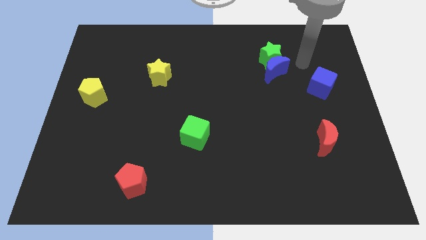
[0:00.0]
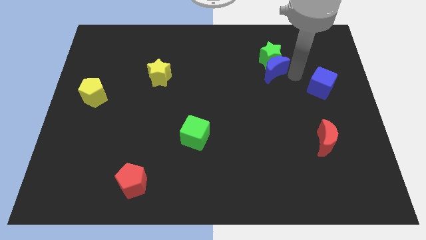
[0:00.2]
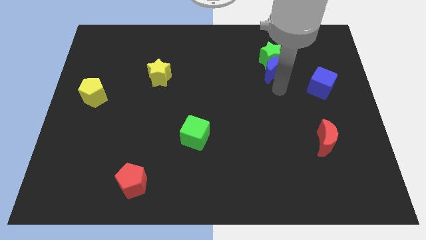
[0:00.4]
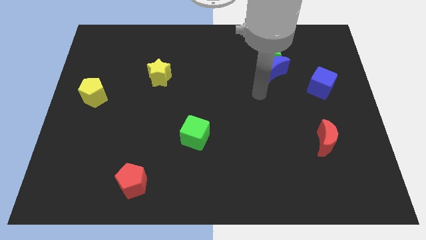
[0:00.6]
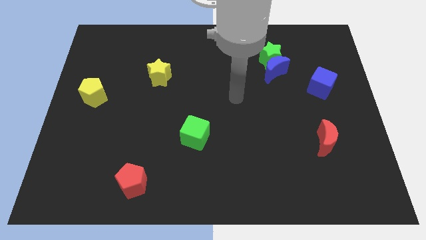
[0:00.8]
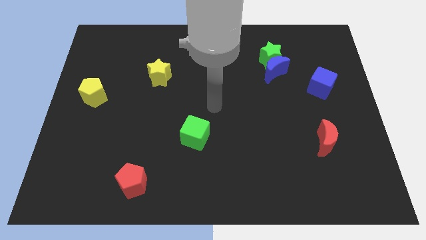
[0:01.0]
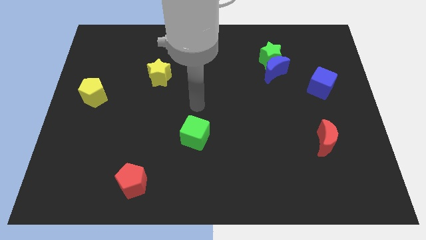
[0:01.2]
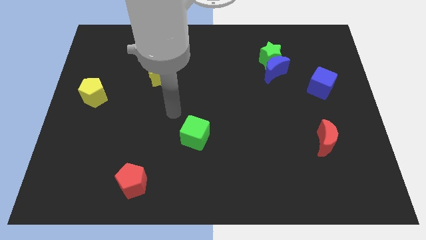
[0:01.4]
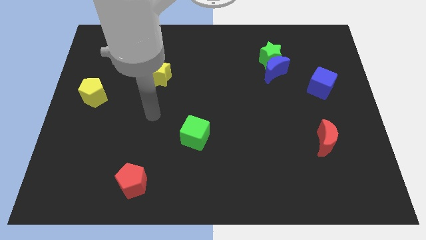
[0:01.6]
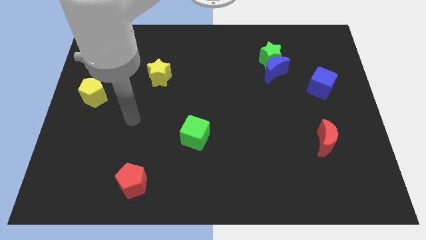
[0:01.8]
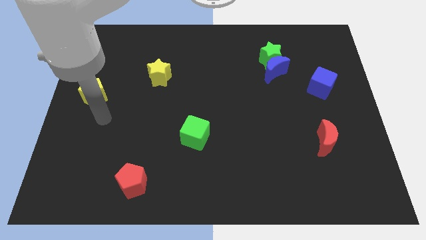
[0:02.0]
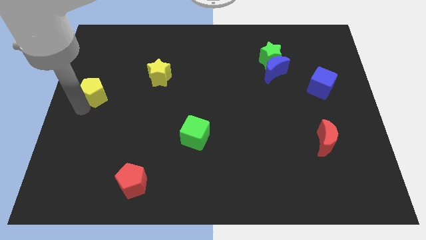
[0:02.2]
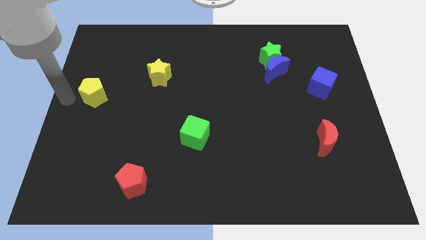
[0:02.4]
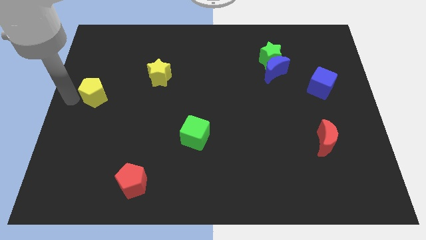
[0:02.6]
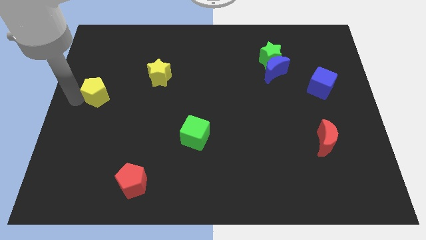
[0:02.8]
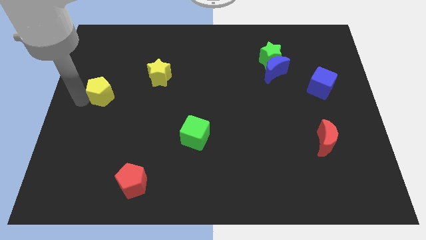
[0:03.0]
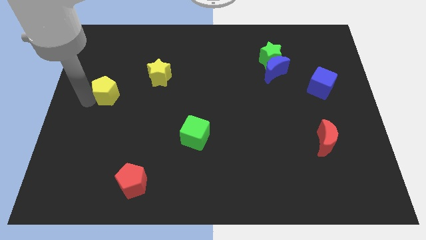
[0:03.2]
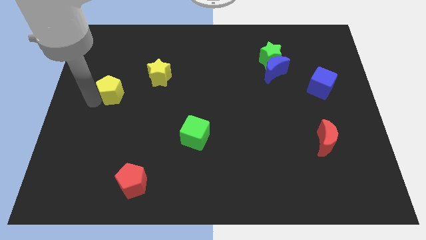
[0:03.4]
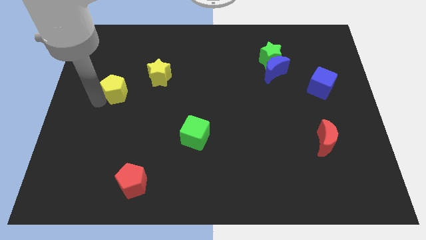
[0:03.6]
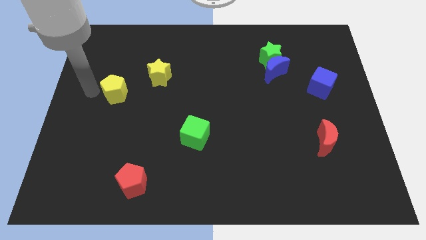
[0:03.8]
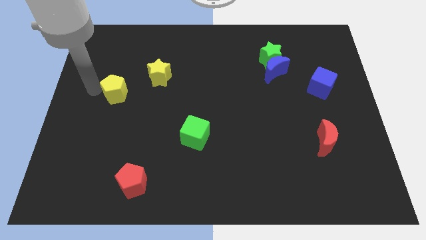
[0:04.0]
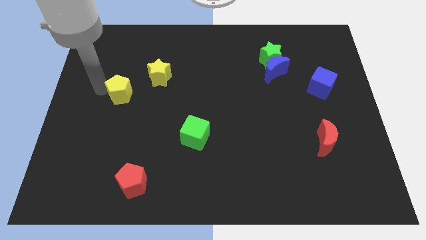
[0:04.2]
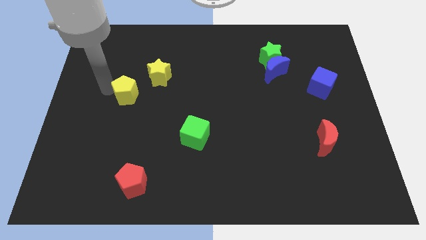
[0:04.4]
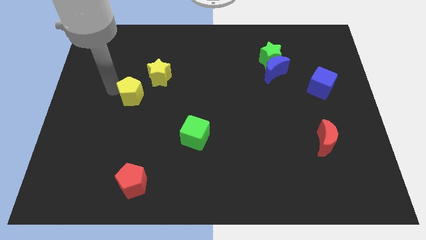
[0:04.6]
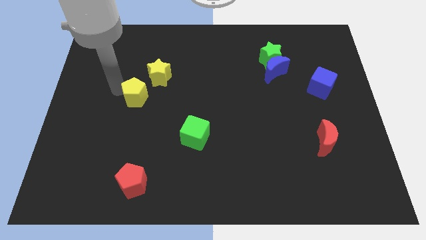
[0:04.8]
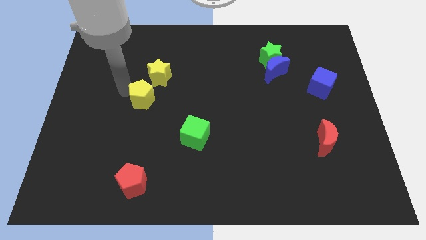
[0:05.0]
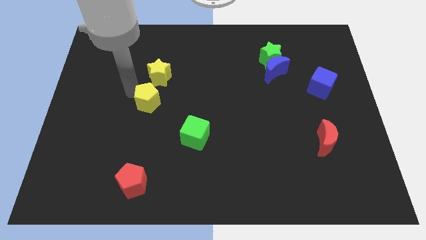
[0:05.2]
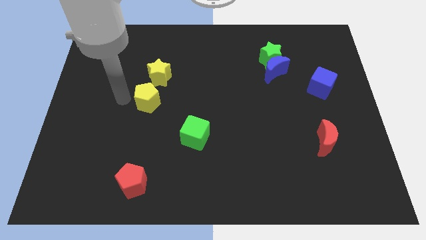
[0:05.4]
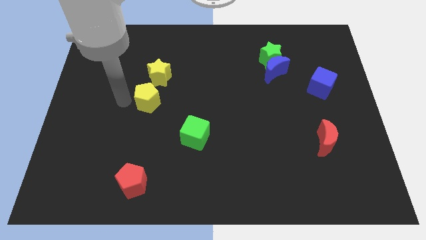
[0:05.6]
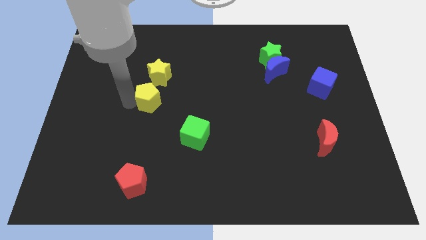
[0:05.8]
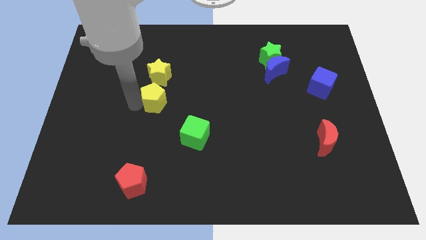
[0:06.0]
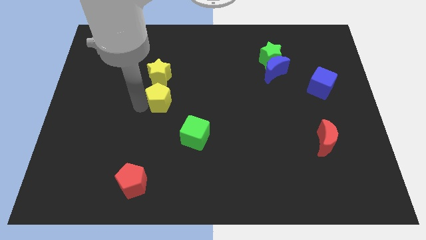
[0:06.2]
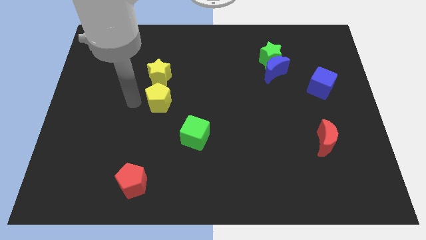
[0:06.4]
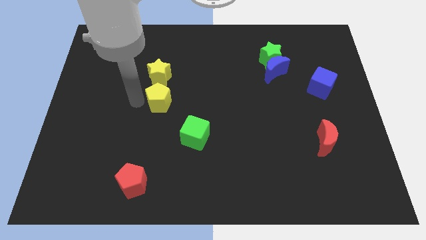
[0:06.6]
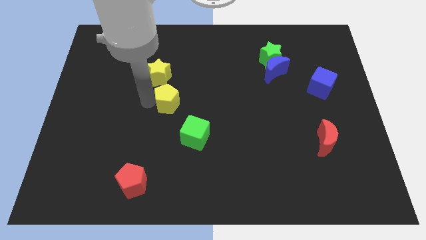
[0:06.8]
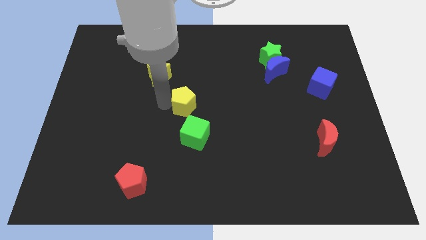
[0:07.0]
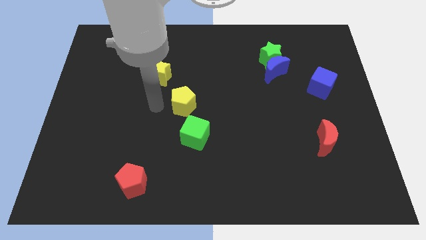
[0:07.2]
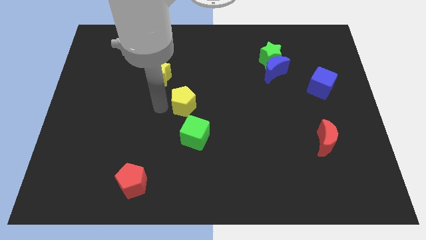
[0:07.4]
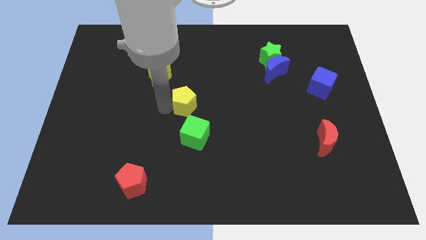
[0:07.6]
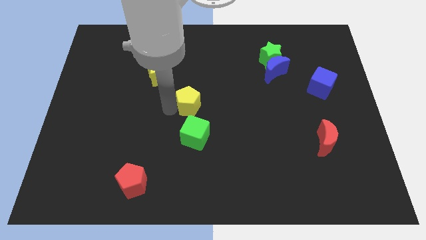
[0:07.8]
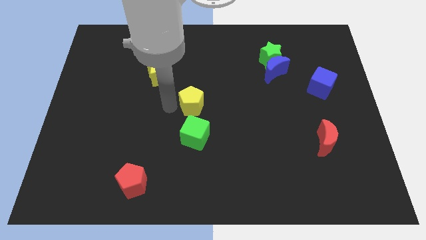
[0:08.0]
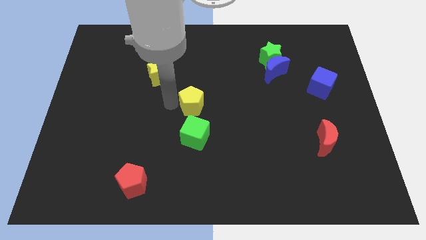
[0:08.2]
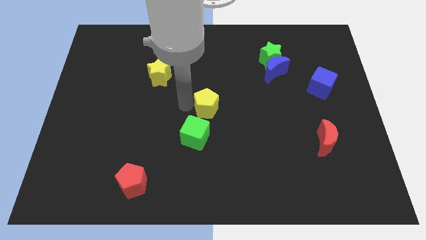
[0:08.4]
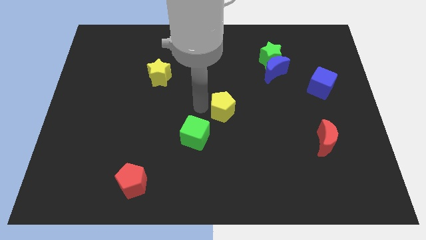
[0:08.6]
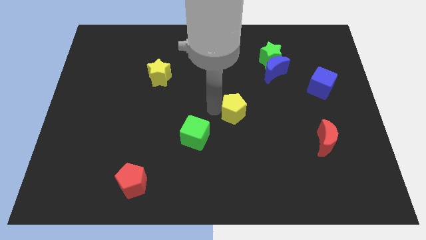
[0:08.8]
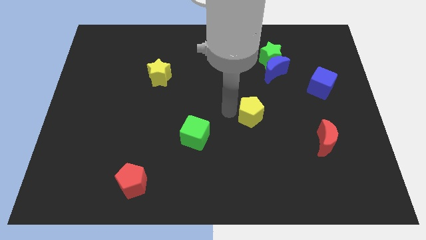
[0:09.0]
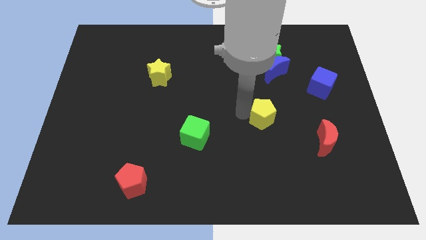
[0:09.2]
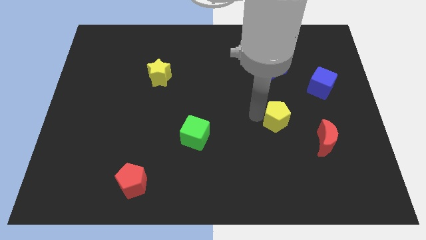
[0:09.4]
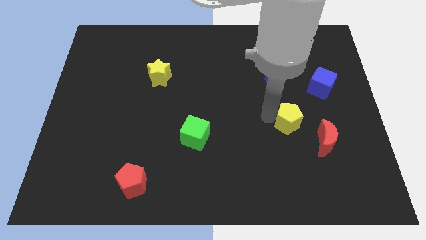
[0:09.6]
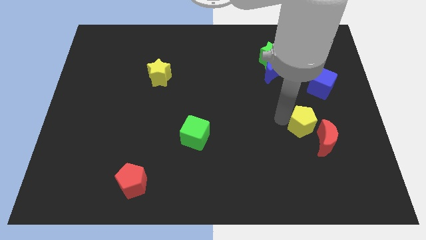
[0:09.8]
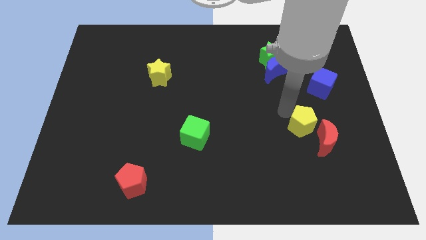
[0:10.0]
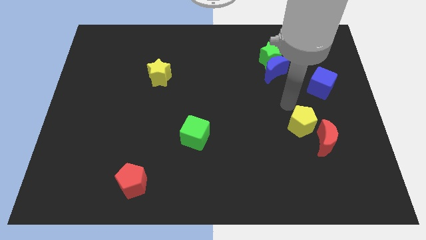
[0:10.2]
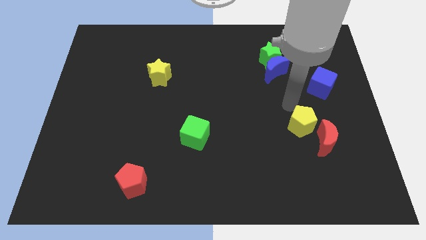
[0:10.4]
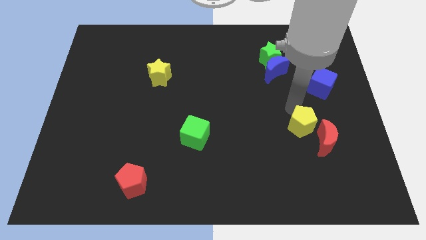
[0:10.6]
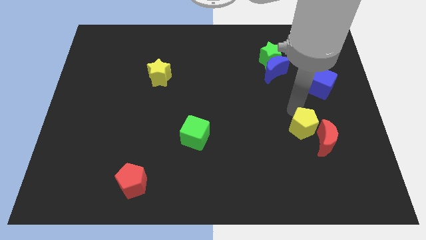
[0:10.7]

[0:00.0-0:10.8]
move the yellow pentagon next to the red moon

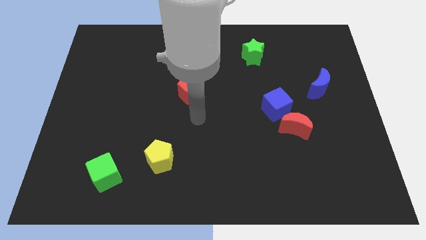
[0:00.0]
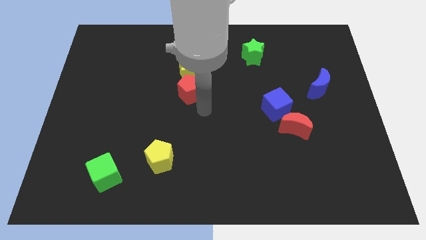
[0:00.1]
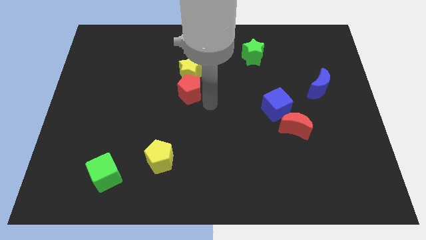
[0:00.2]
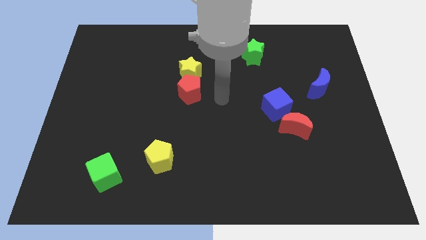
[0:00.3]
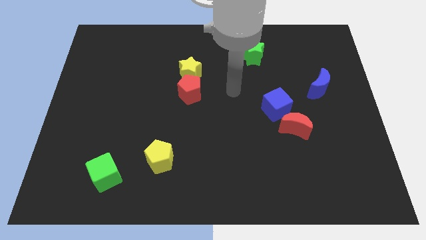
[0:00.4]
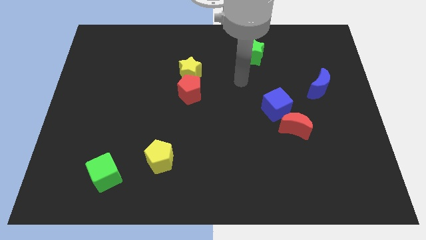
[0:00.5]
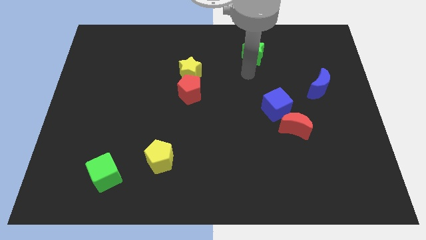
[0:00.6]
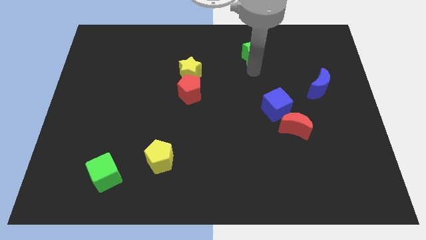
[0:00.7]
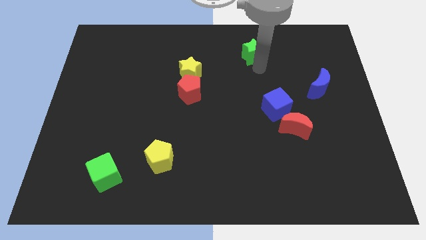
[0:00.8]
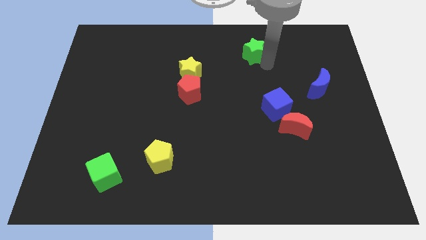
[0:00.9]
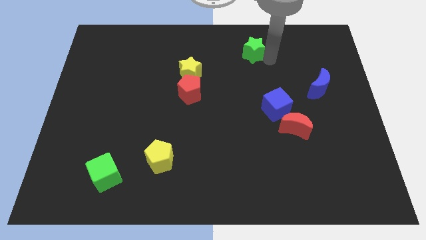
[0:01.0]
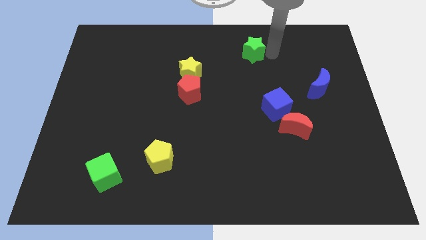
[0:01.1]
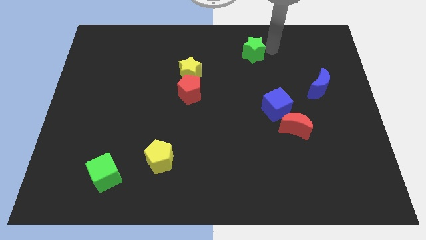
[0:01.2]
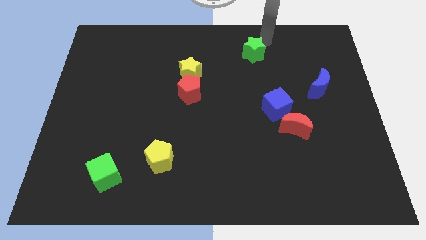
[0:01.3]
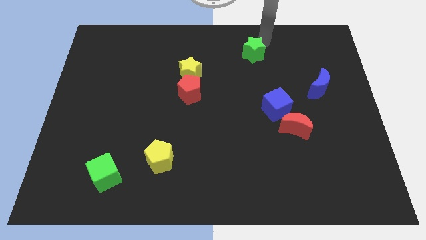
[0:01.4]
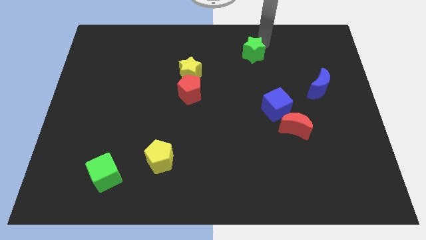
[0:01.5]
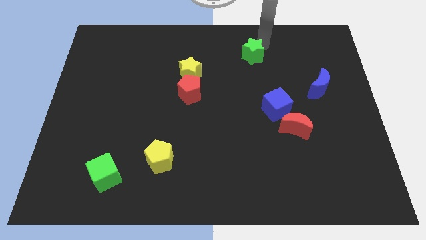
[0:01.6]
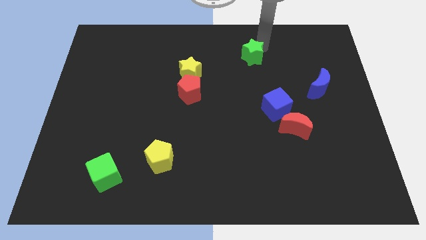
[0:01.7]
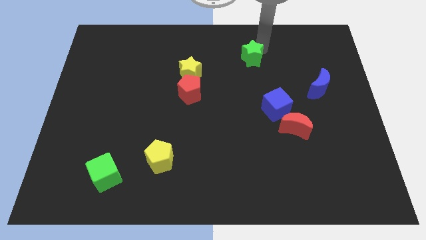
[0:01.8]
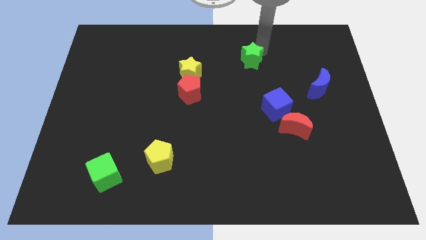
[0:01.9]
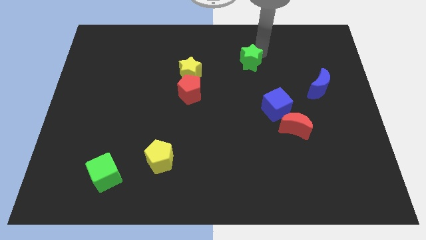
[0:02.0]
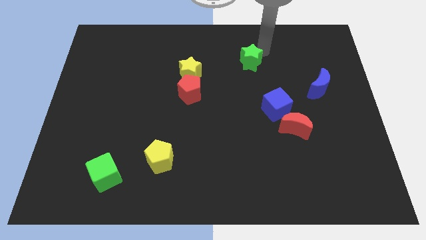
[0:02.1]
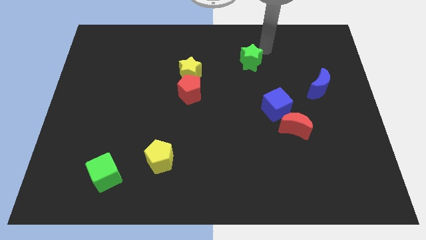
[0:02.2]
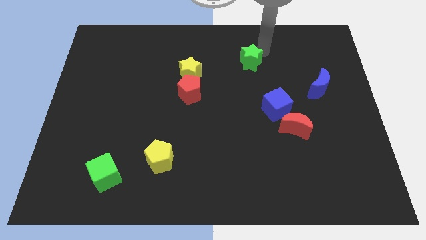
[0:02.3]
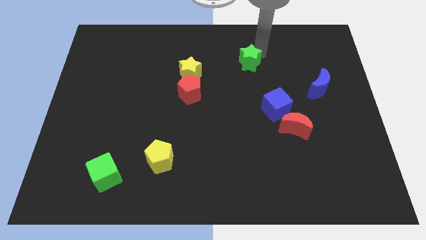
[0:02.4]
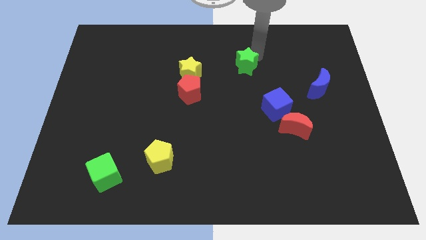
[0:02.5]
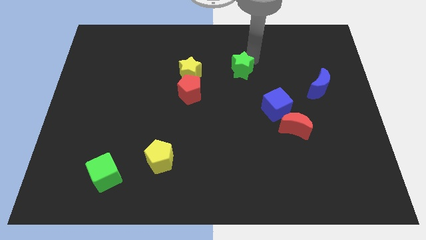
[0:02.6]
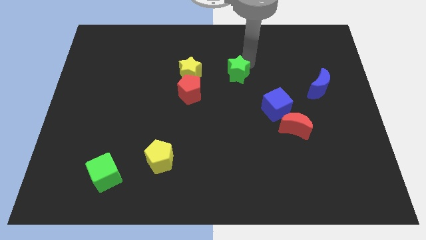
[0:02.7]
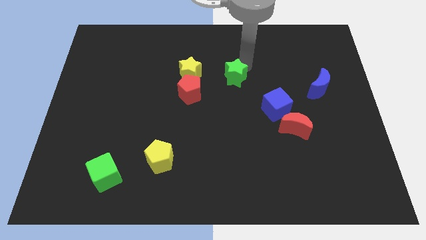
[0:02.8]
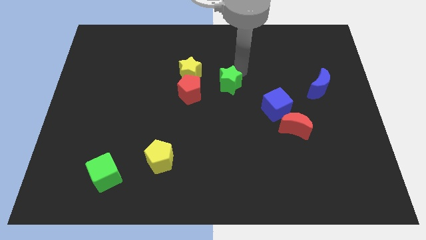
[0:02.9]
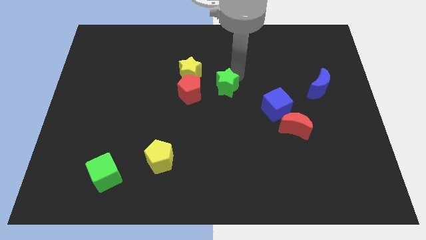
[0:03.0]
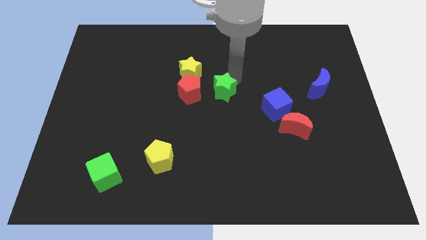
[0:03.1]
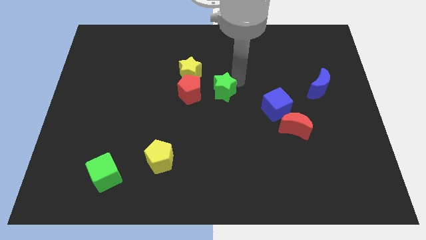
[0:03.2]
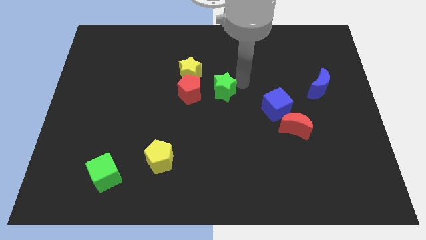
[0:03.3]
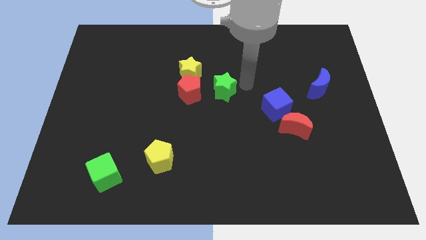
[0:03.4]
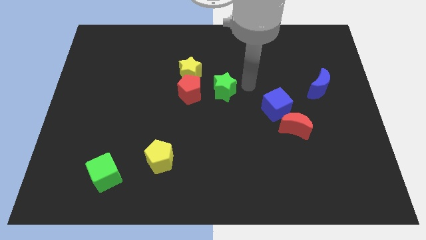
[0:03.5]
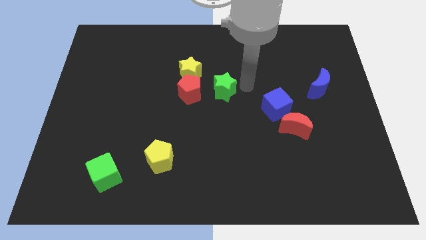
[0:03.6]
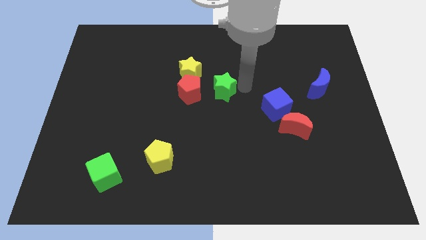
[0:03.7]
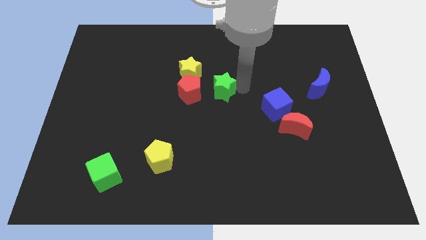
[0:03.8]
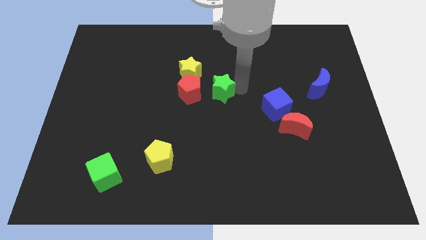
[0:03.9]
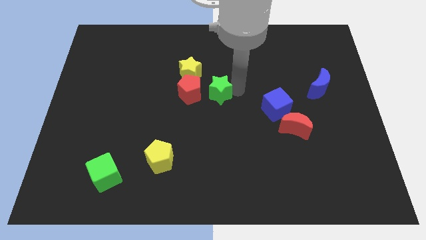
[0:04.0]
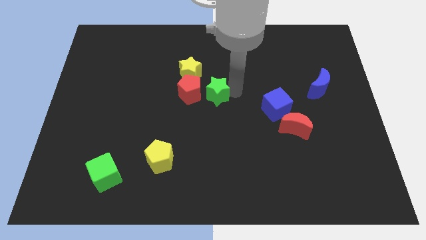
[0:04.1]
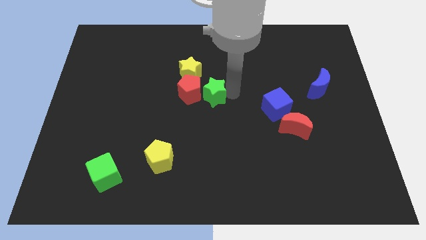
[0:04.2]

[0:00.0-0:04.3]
put the green star towards the red pentagon
